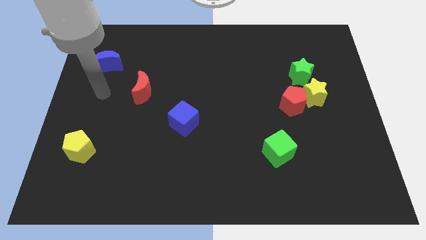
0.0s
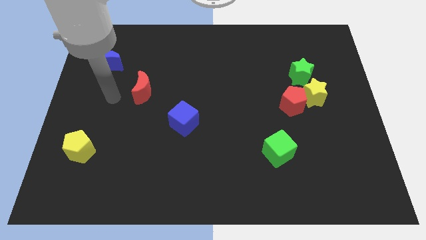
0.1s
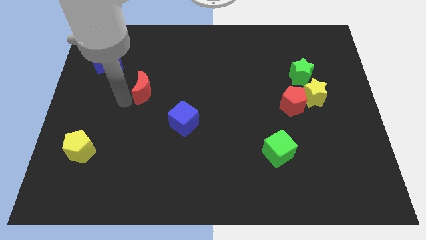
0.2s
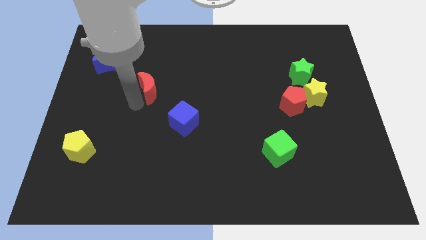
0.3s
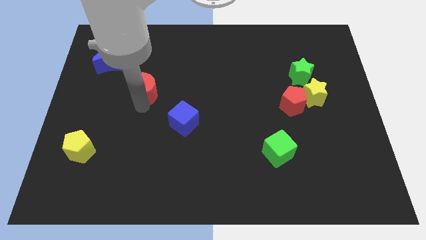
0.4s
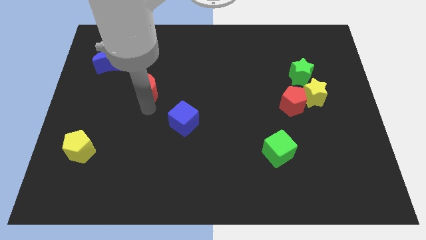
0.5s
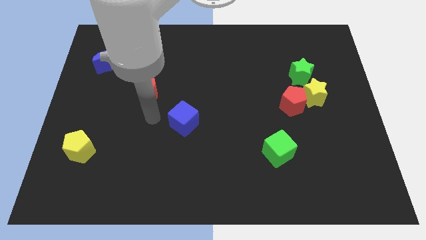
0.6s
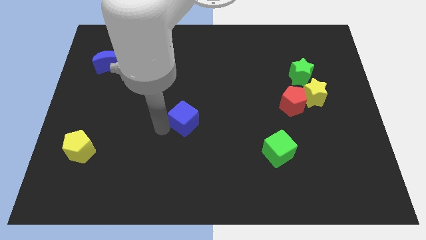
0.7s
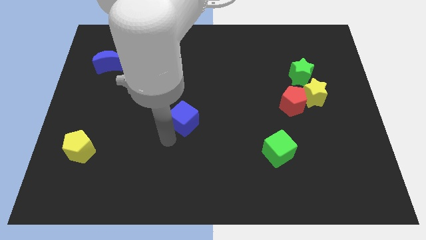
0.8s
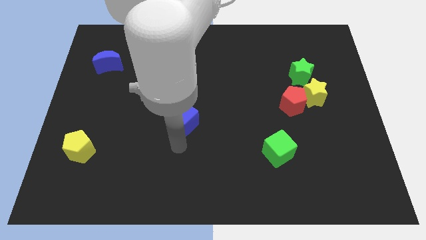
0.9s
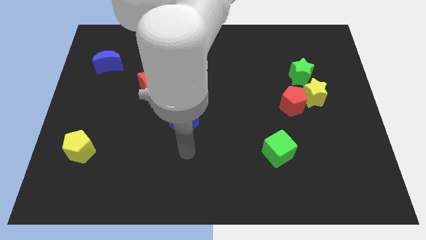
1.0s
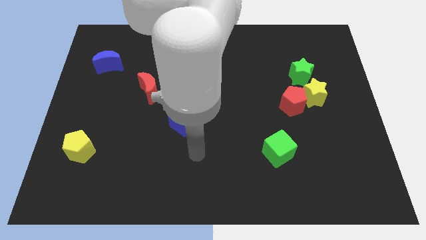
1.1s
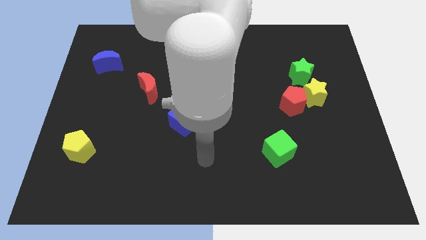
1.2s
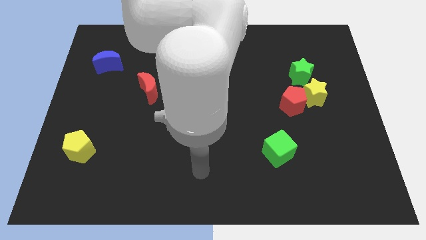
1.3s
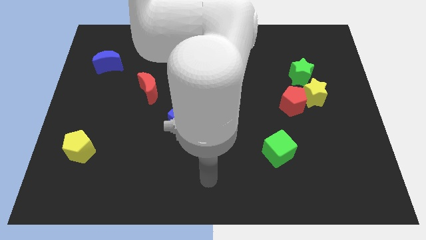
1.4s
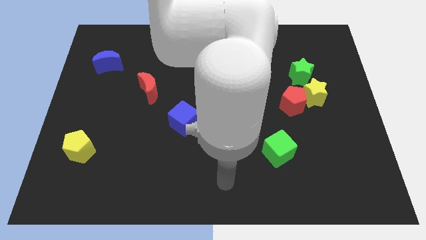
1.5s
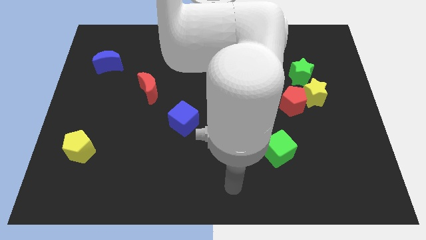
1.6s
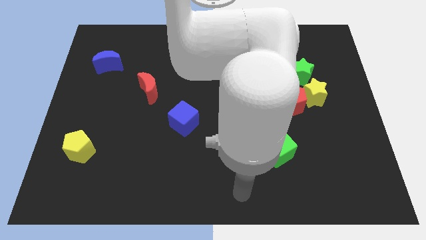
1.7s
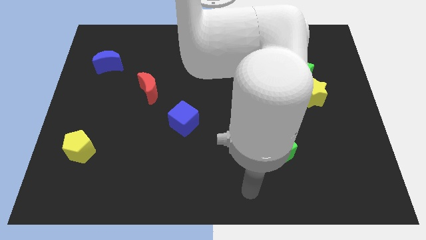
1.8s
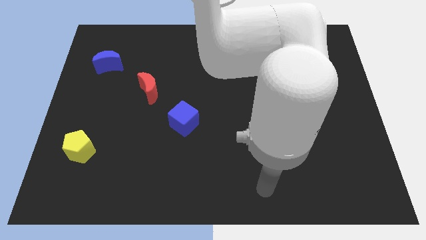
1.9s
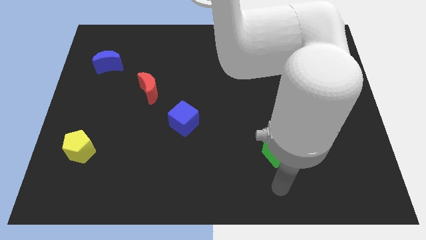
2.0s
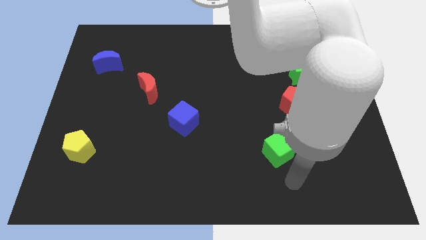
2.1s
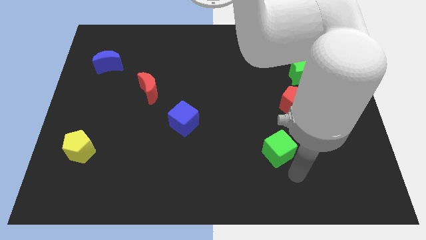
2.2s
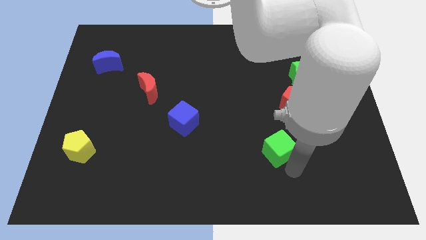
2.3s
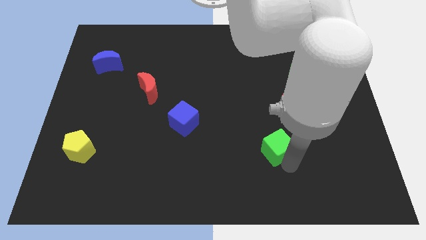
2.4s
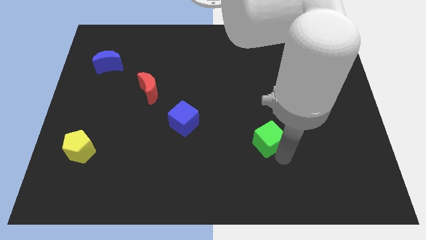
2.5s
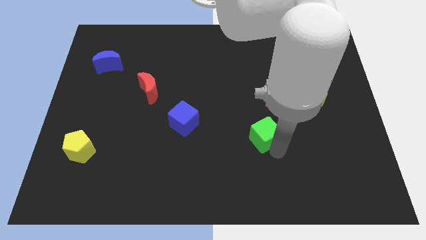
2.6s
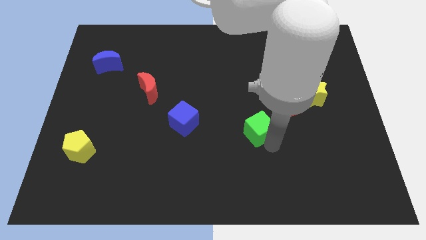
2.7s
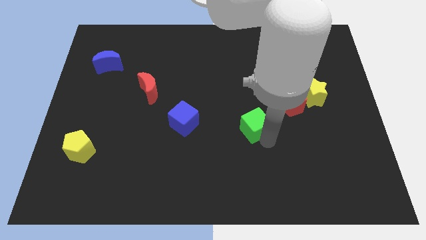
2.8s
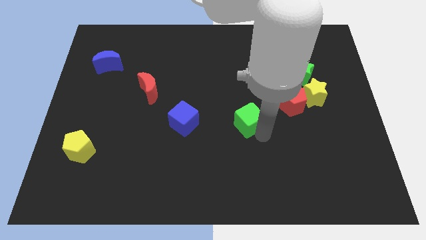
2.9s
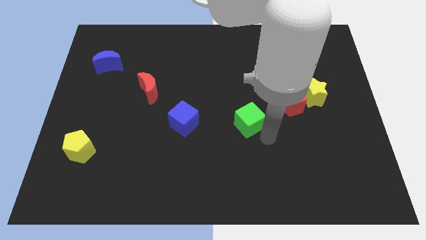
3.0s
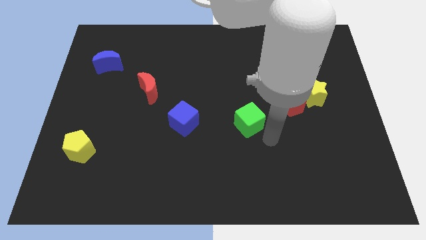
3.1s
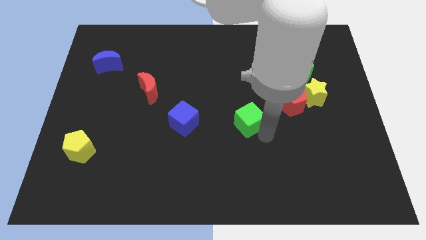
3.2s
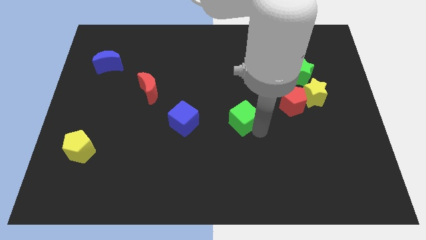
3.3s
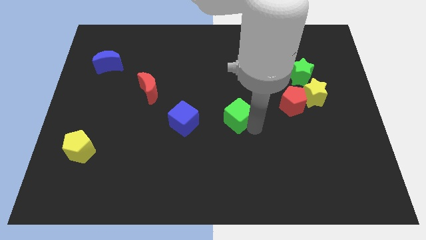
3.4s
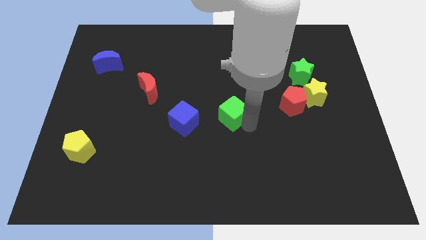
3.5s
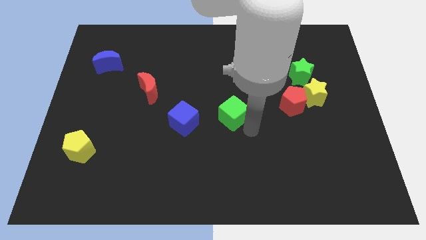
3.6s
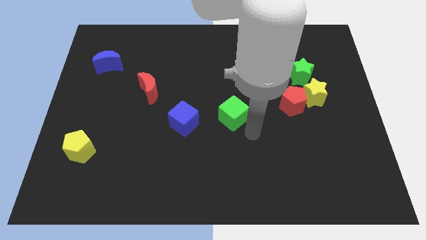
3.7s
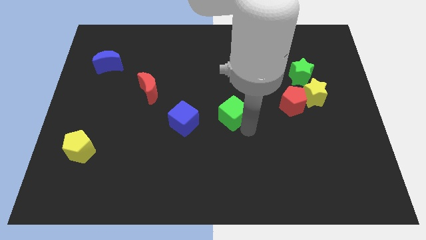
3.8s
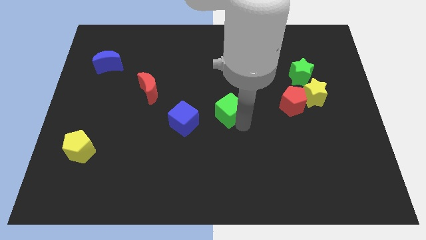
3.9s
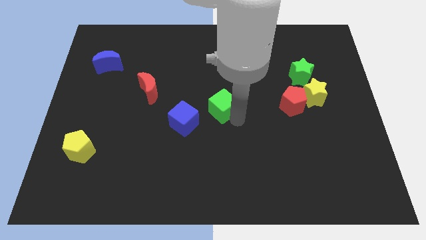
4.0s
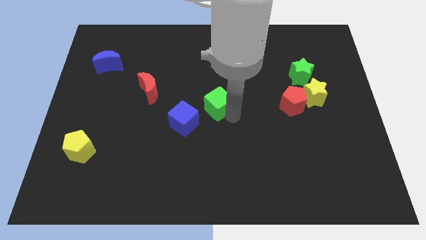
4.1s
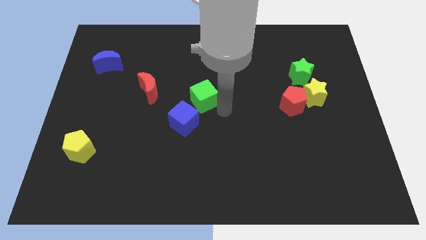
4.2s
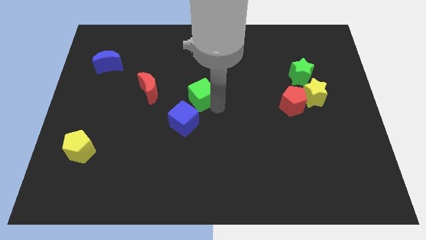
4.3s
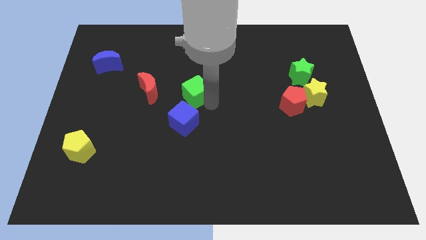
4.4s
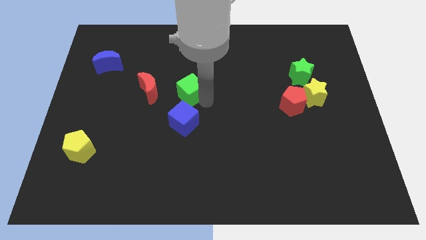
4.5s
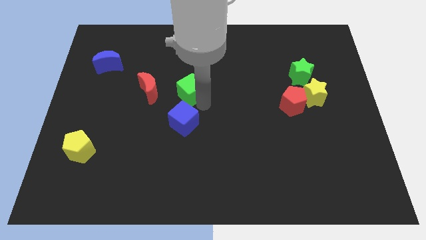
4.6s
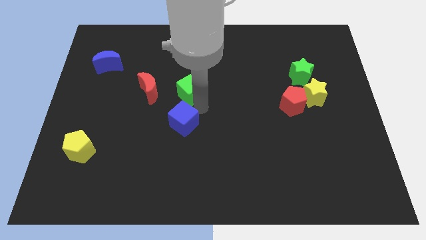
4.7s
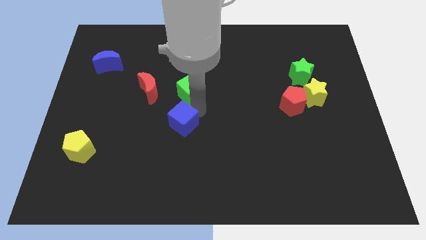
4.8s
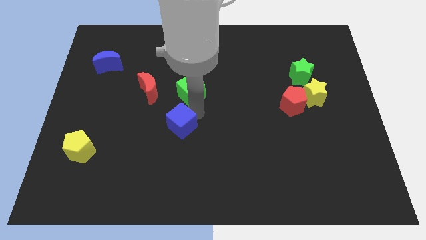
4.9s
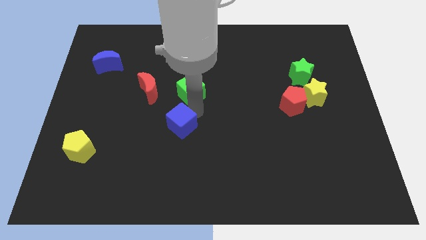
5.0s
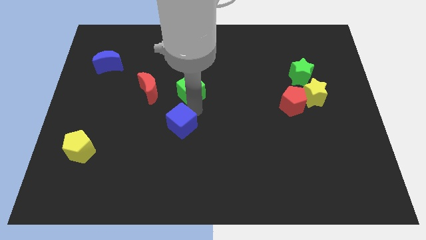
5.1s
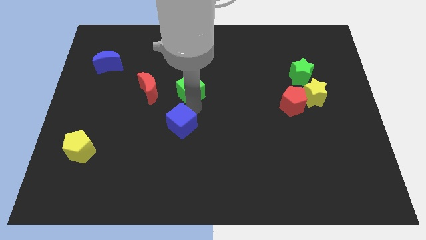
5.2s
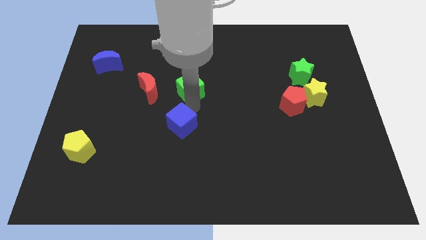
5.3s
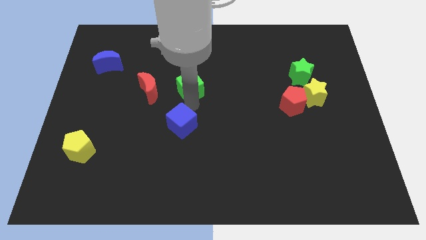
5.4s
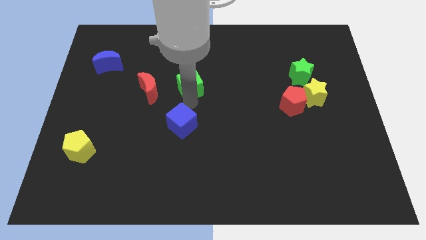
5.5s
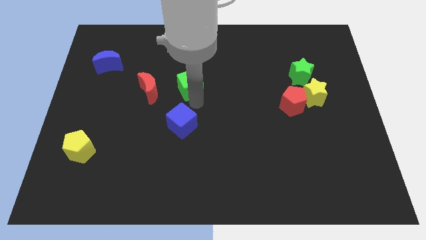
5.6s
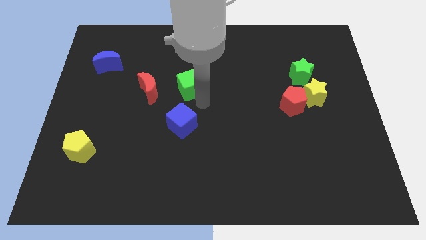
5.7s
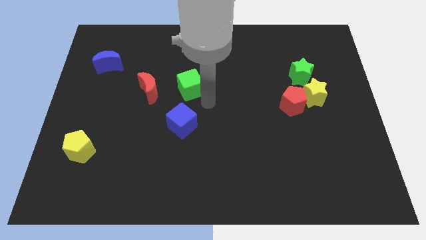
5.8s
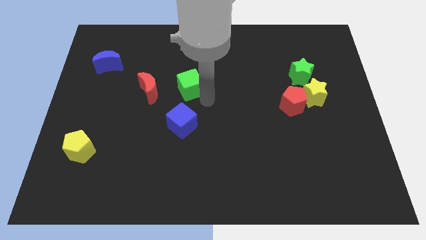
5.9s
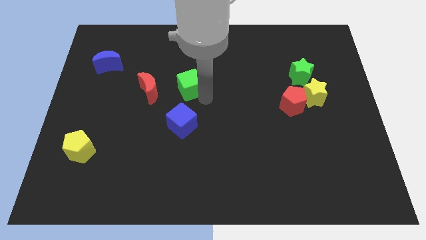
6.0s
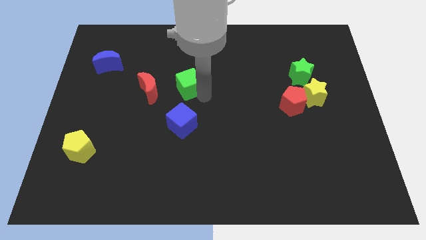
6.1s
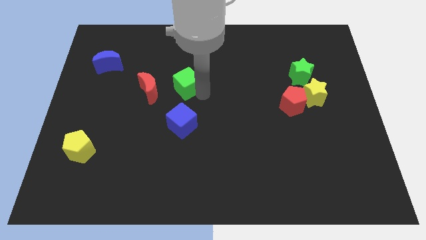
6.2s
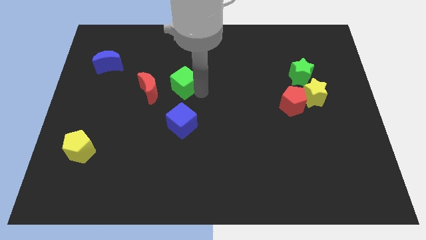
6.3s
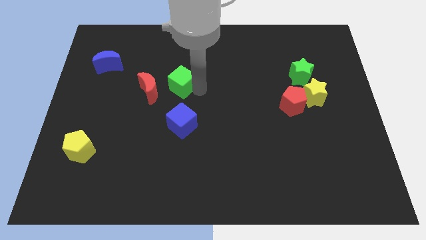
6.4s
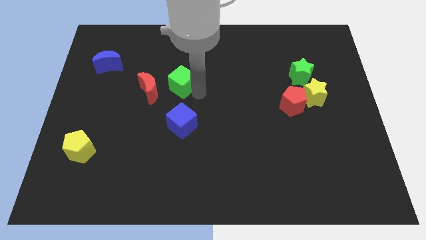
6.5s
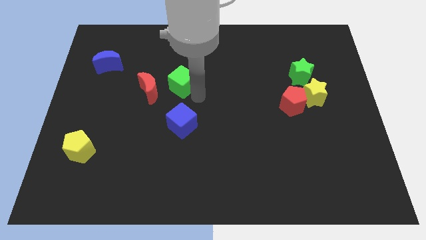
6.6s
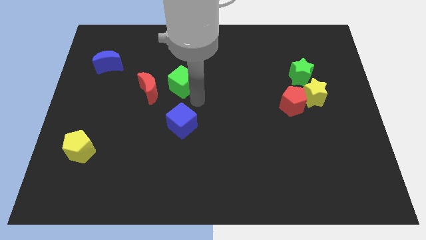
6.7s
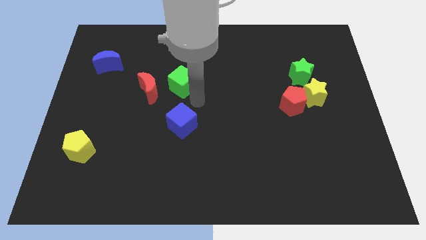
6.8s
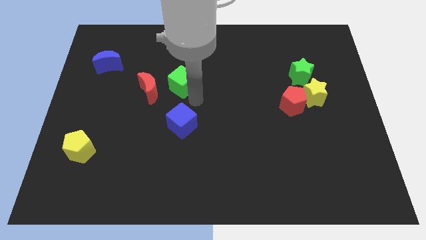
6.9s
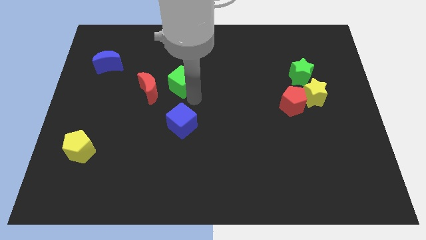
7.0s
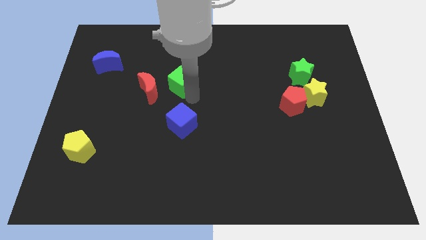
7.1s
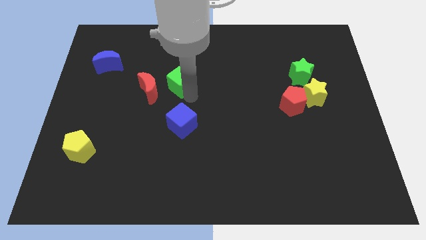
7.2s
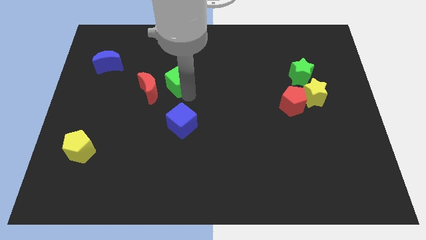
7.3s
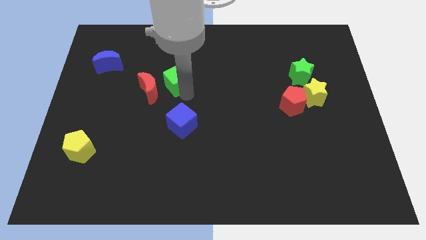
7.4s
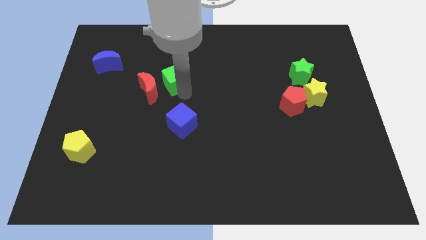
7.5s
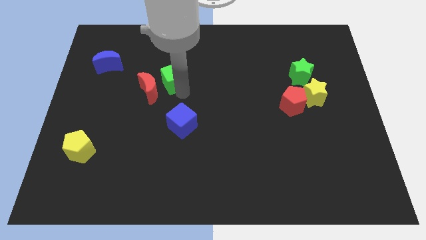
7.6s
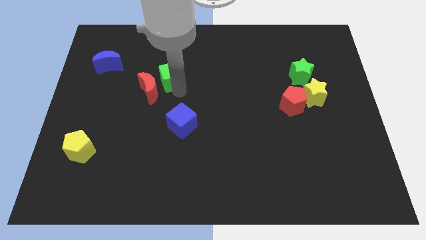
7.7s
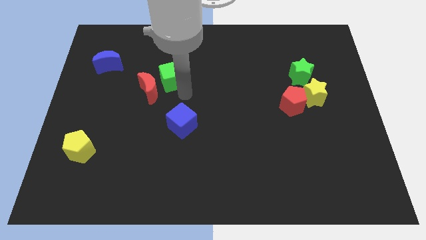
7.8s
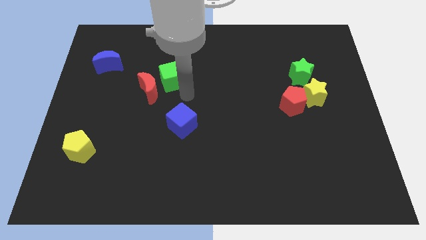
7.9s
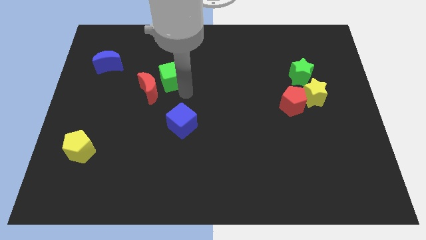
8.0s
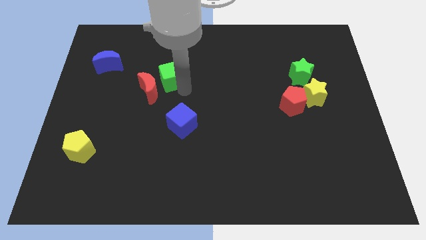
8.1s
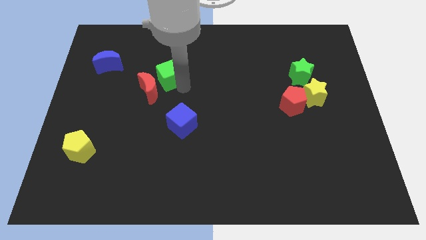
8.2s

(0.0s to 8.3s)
slide the green cube to the top of the red moon
